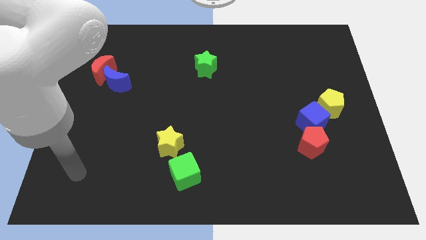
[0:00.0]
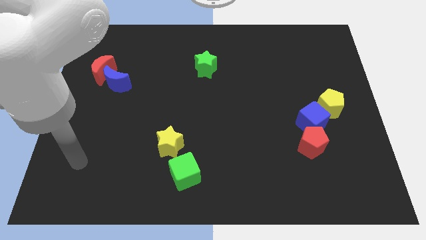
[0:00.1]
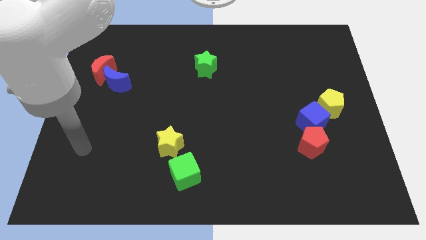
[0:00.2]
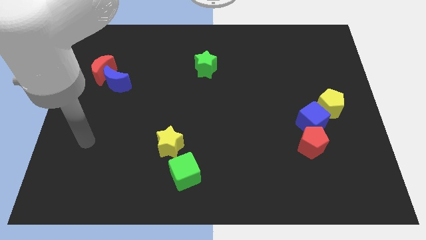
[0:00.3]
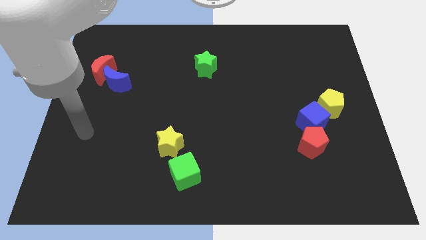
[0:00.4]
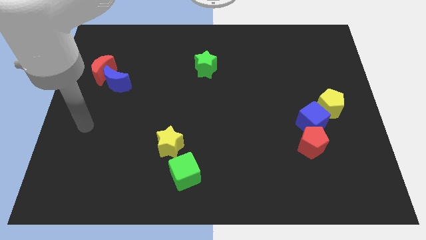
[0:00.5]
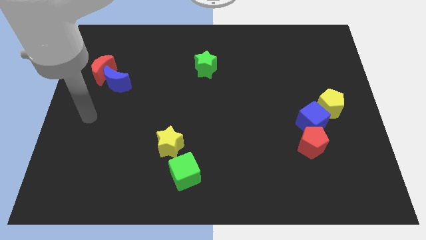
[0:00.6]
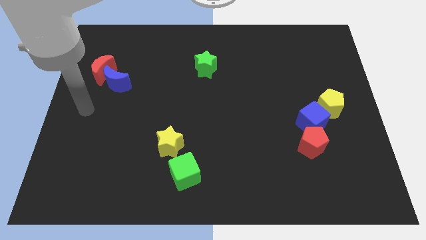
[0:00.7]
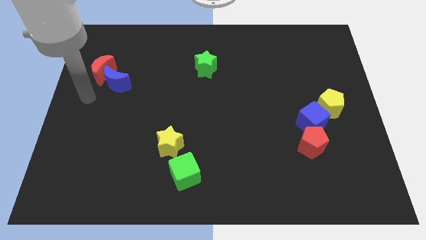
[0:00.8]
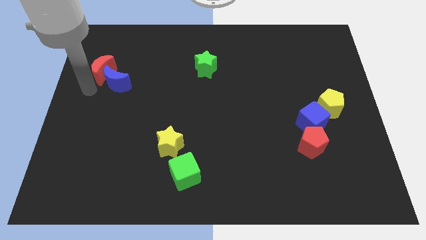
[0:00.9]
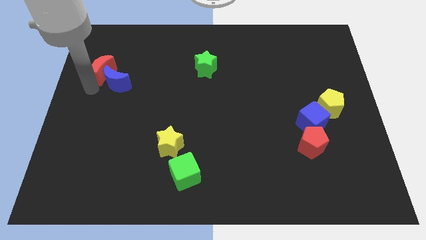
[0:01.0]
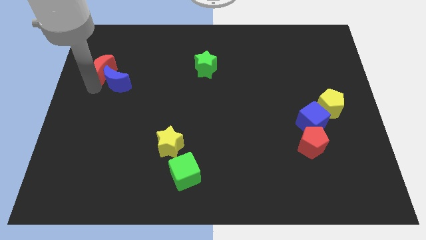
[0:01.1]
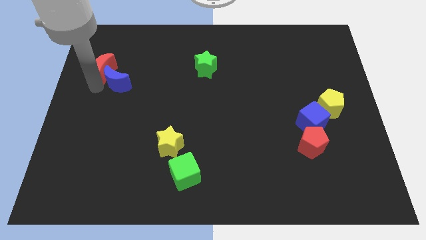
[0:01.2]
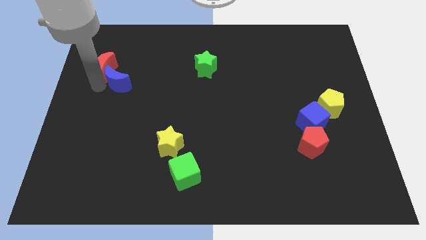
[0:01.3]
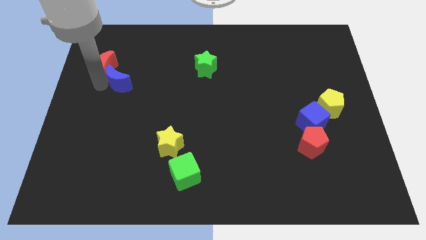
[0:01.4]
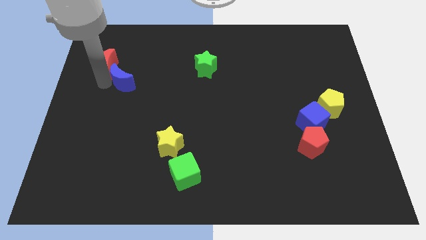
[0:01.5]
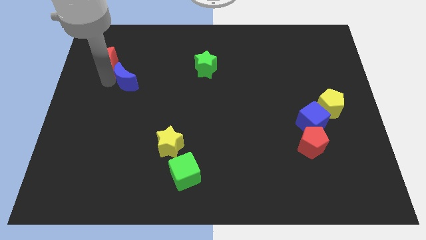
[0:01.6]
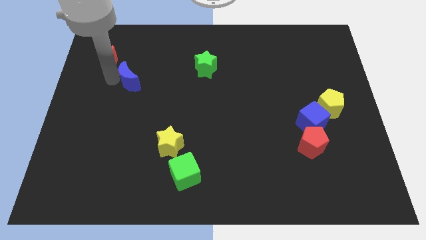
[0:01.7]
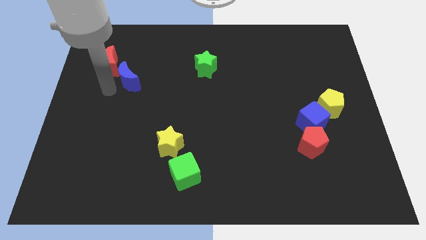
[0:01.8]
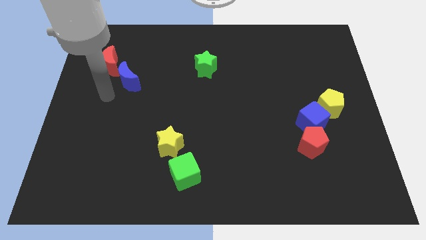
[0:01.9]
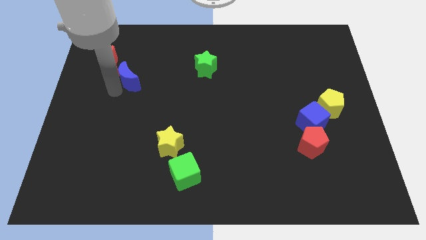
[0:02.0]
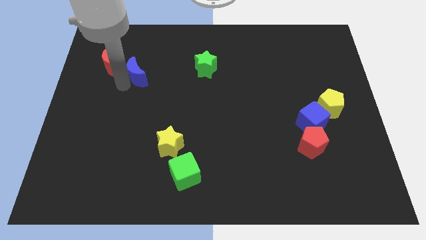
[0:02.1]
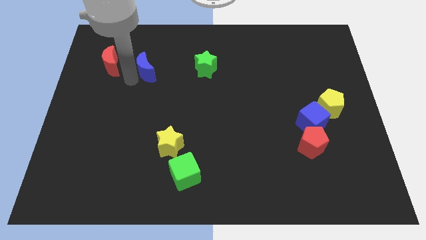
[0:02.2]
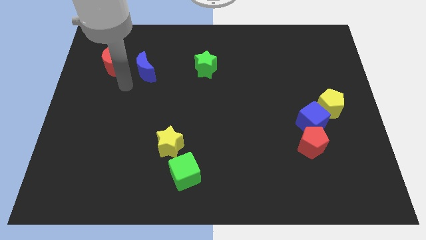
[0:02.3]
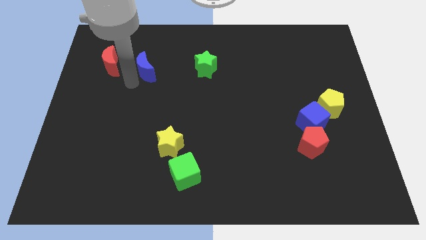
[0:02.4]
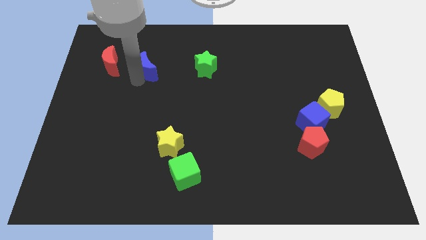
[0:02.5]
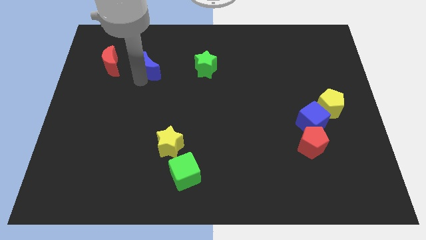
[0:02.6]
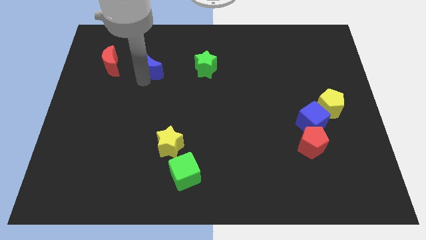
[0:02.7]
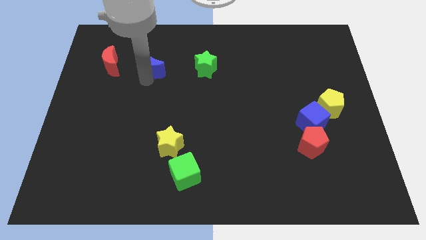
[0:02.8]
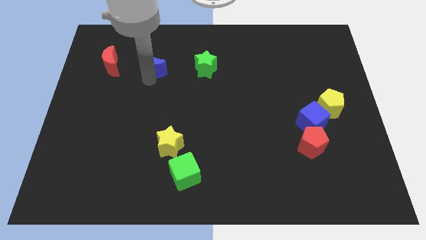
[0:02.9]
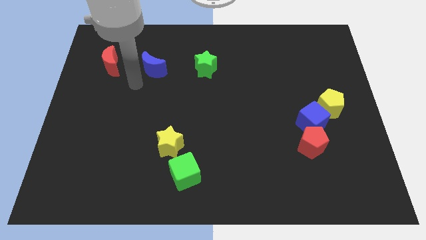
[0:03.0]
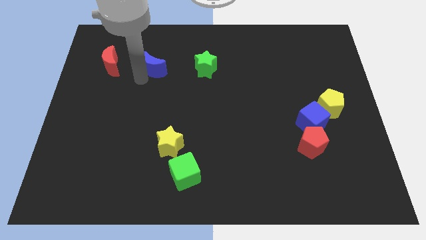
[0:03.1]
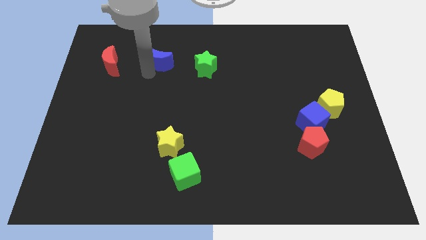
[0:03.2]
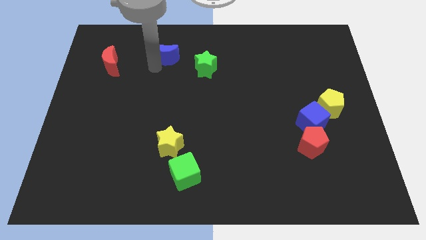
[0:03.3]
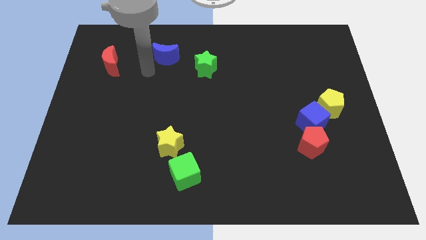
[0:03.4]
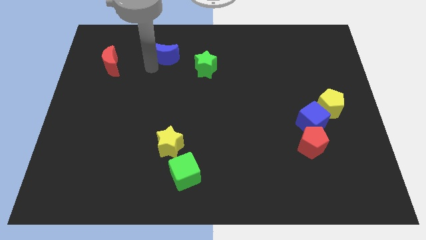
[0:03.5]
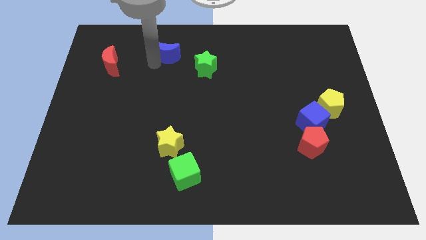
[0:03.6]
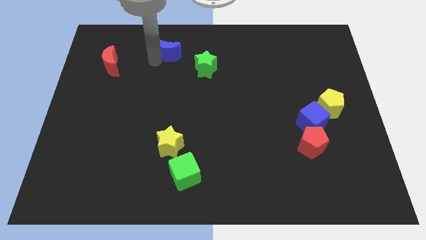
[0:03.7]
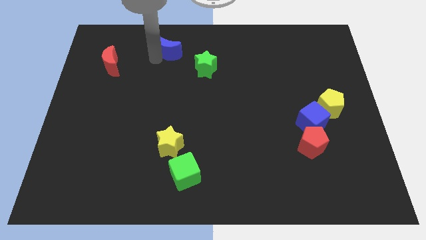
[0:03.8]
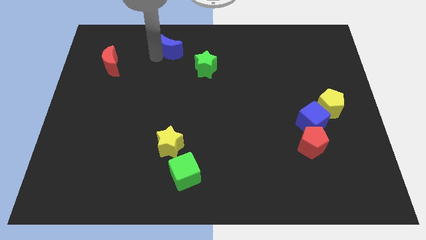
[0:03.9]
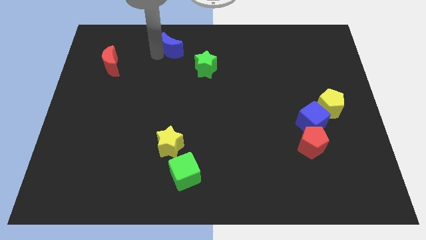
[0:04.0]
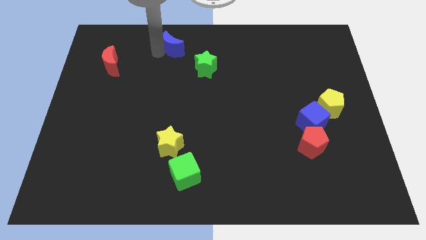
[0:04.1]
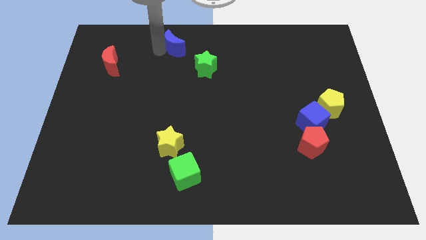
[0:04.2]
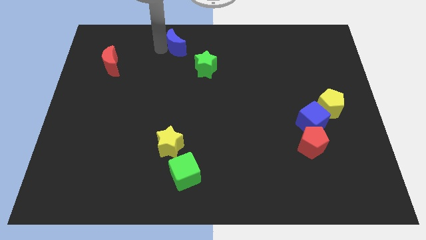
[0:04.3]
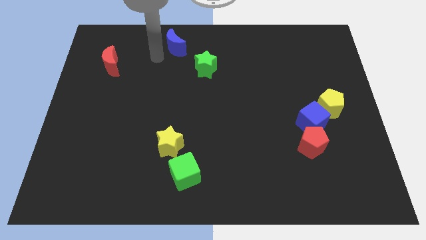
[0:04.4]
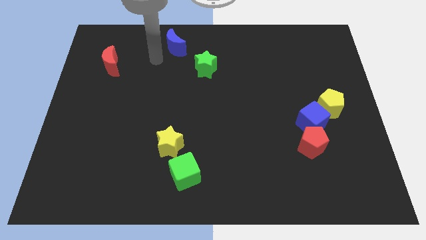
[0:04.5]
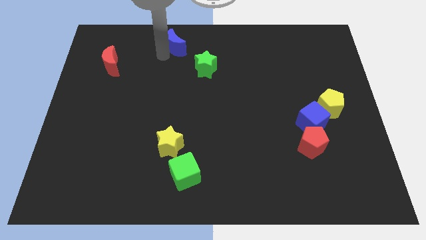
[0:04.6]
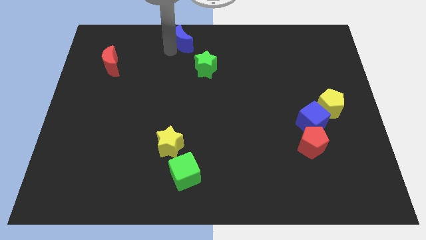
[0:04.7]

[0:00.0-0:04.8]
move the blue moon to the top

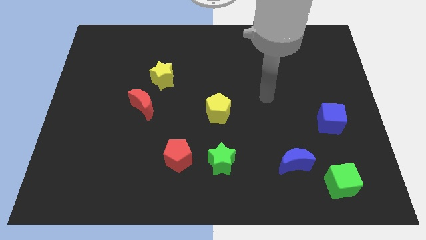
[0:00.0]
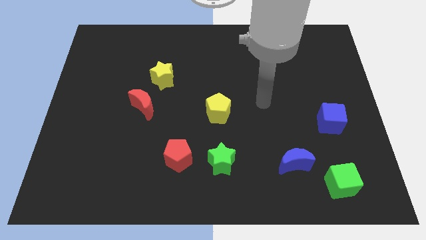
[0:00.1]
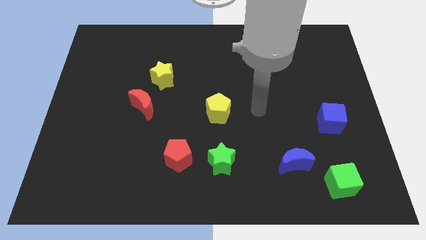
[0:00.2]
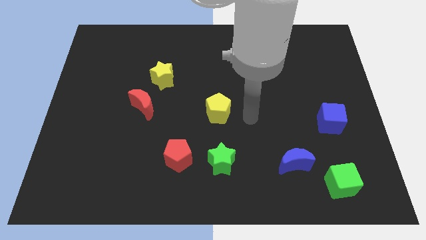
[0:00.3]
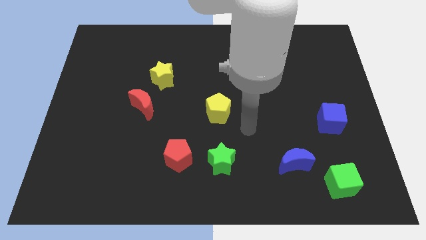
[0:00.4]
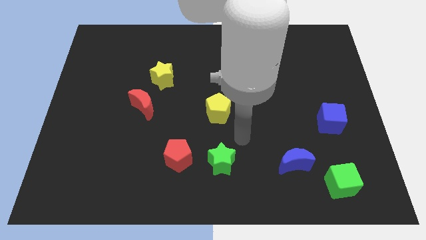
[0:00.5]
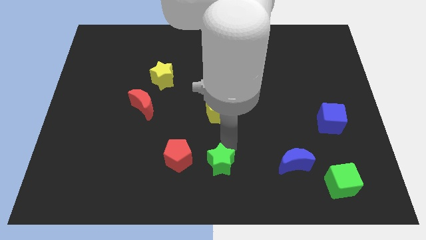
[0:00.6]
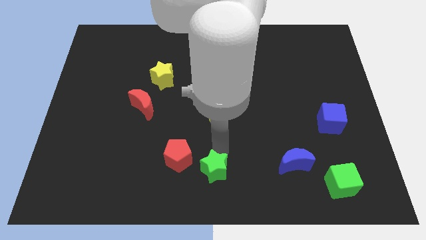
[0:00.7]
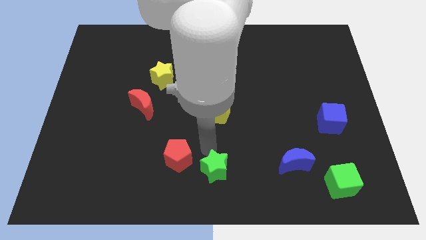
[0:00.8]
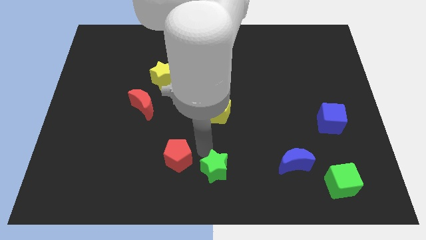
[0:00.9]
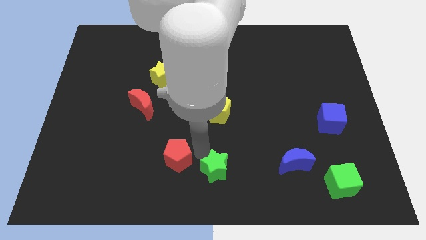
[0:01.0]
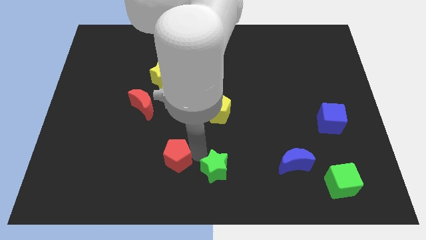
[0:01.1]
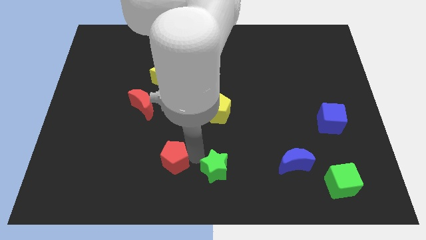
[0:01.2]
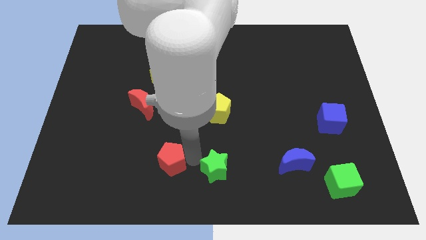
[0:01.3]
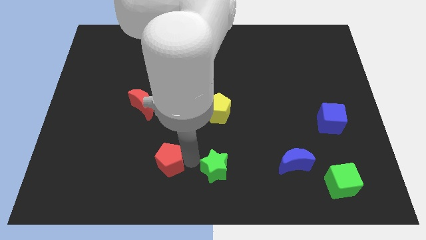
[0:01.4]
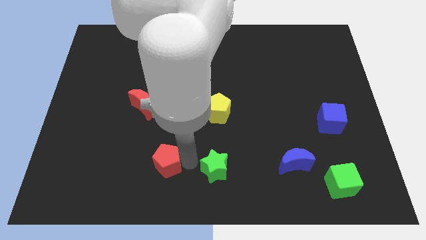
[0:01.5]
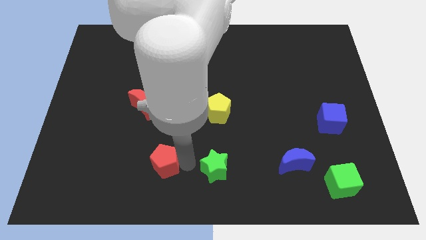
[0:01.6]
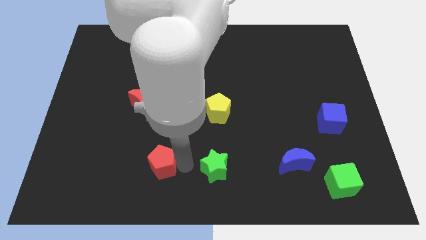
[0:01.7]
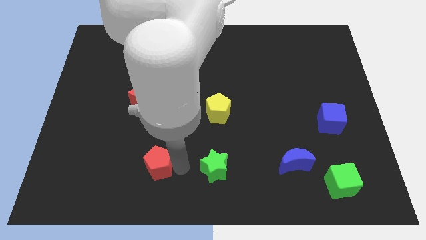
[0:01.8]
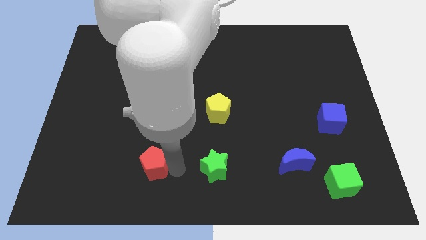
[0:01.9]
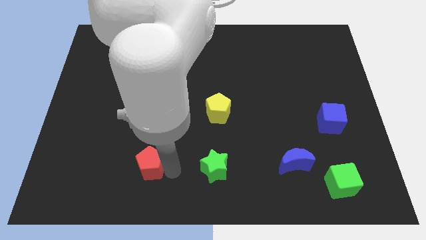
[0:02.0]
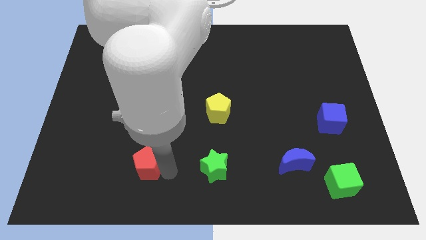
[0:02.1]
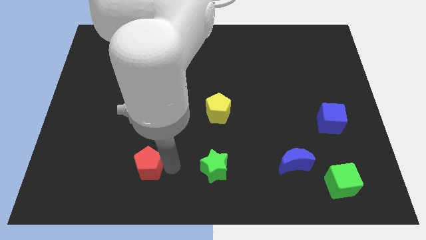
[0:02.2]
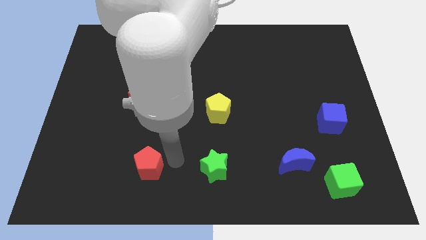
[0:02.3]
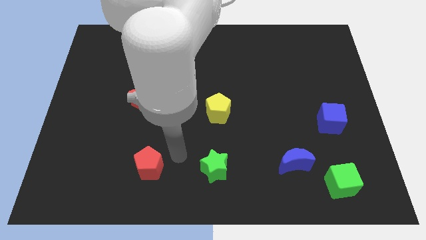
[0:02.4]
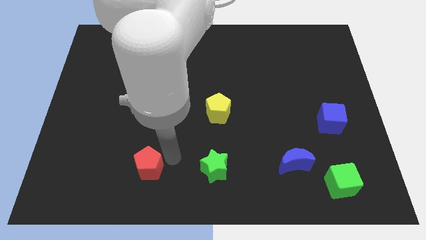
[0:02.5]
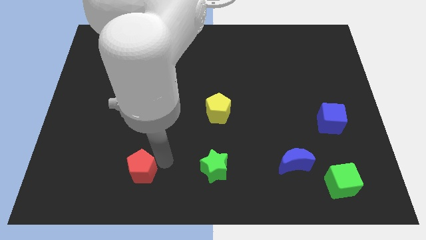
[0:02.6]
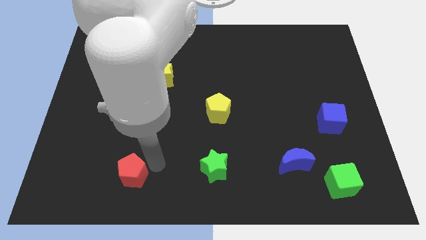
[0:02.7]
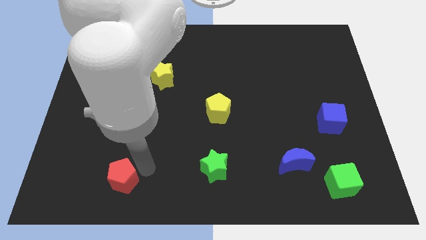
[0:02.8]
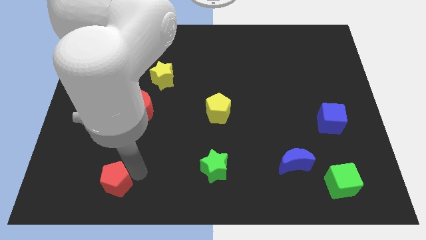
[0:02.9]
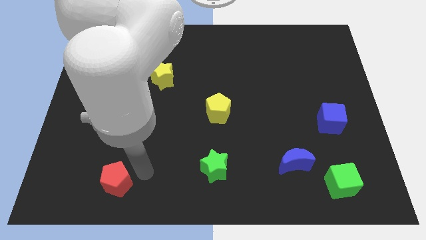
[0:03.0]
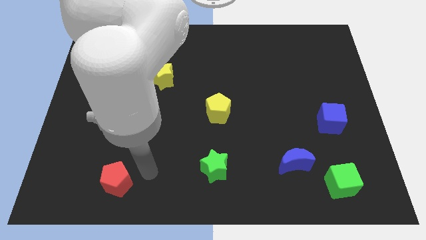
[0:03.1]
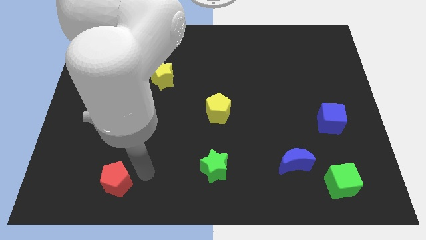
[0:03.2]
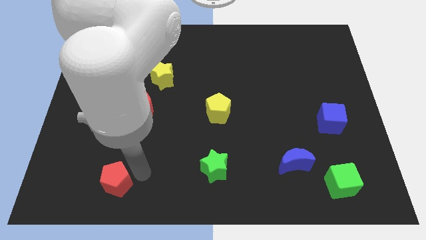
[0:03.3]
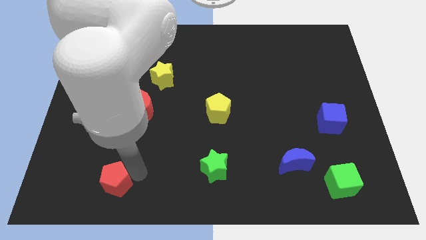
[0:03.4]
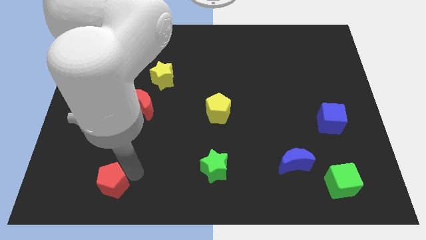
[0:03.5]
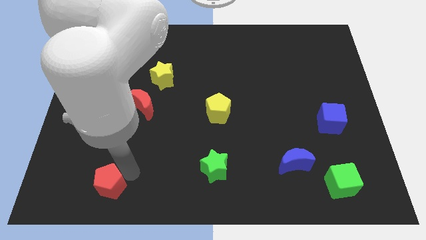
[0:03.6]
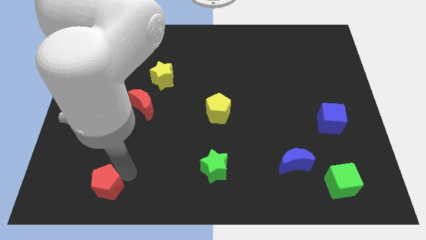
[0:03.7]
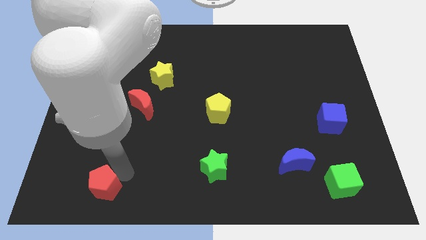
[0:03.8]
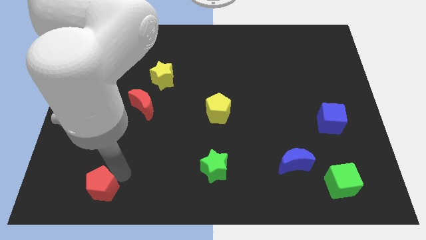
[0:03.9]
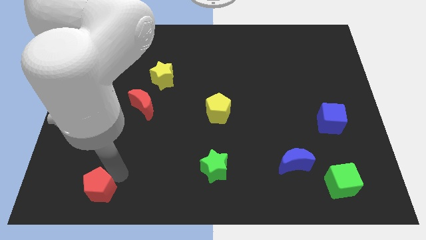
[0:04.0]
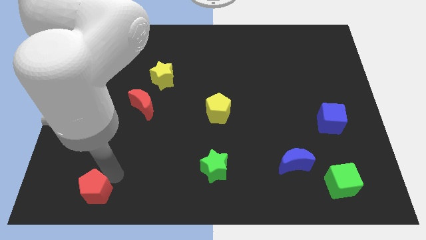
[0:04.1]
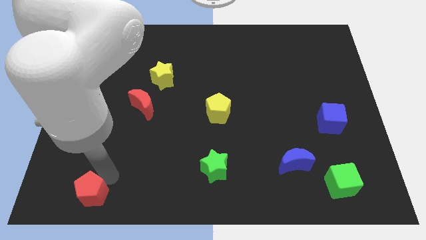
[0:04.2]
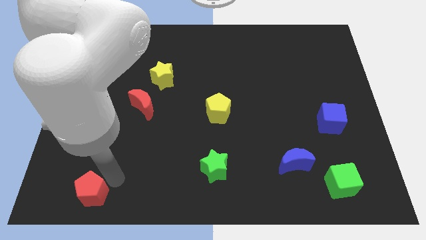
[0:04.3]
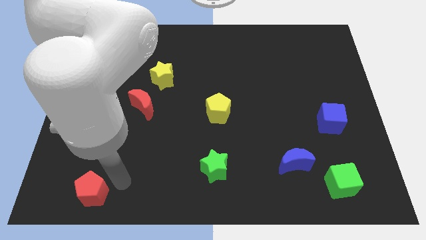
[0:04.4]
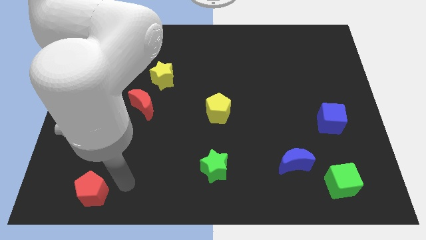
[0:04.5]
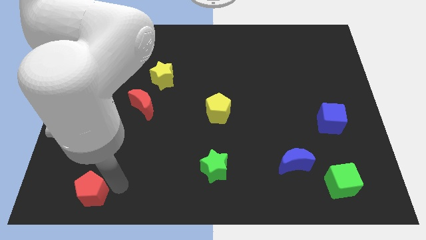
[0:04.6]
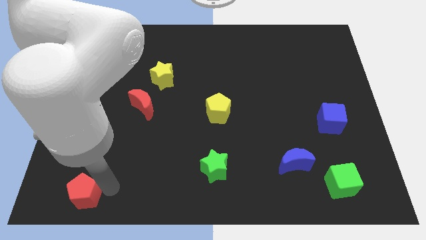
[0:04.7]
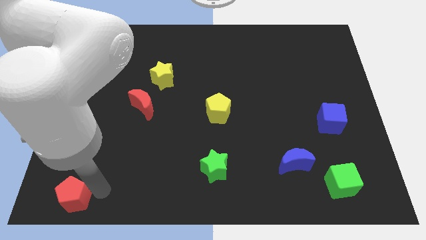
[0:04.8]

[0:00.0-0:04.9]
slide the red pentagon to the bottom left of the board
